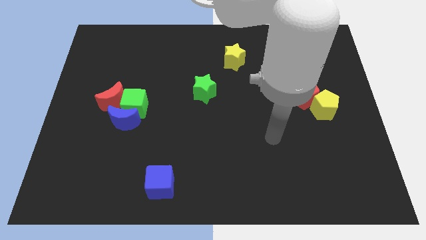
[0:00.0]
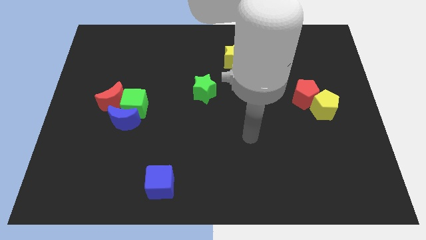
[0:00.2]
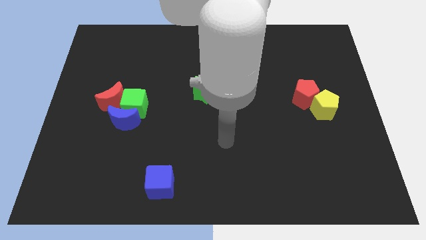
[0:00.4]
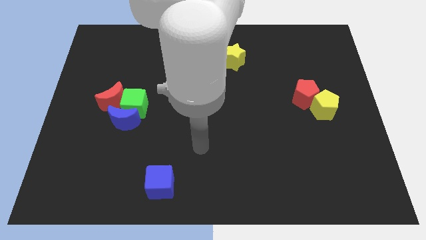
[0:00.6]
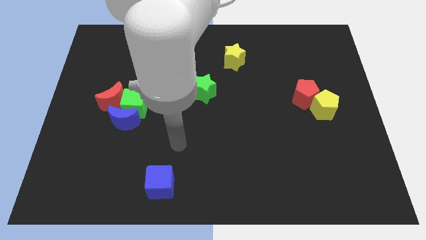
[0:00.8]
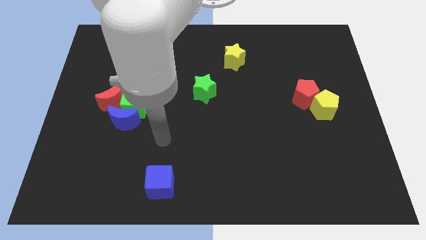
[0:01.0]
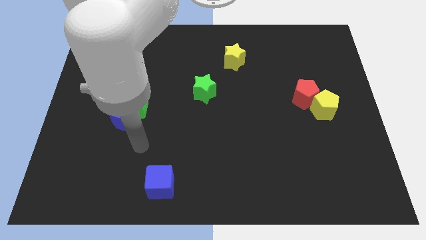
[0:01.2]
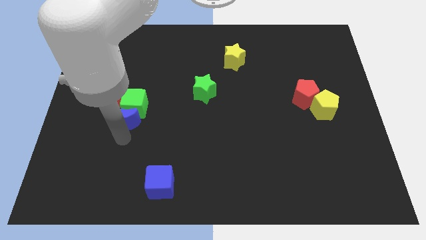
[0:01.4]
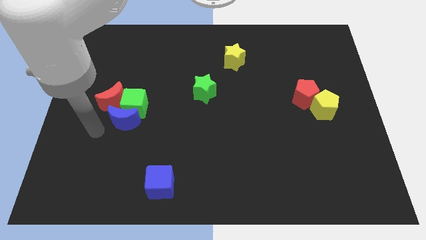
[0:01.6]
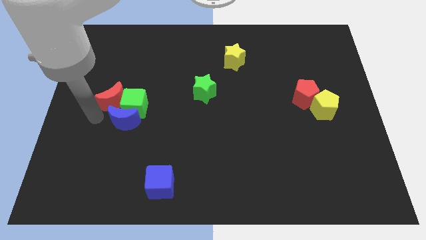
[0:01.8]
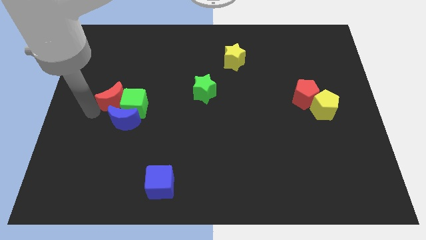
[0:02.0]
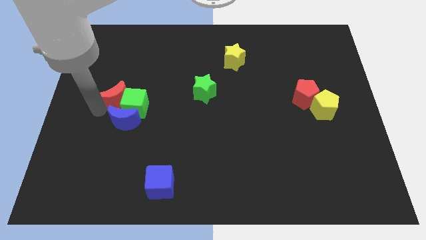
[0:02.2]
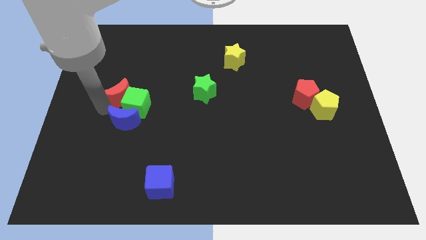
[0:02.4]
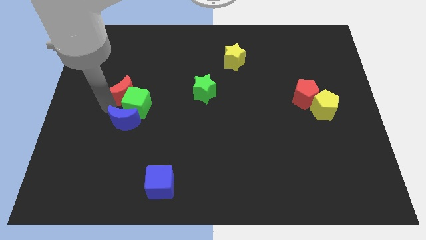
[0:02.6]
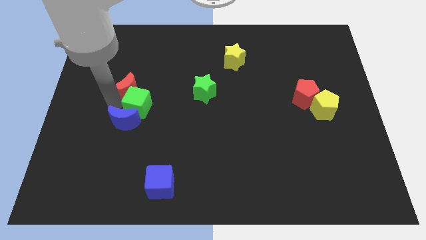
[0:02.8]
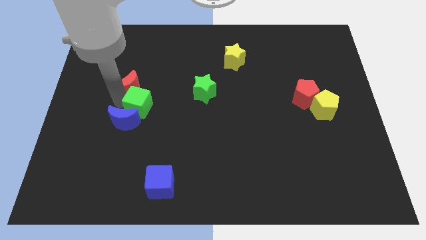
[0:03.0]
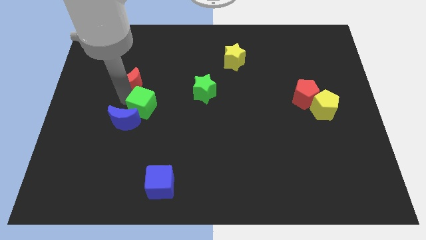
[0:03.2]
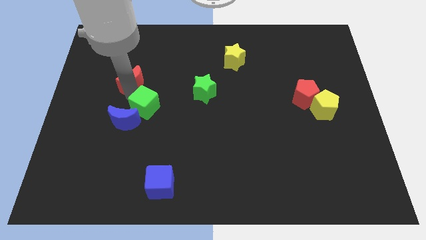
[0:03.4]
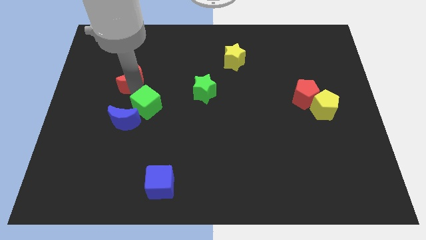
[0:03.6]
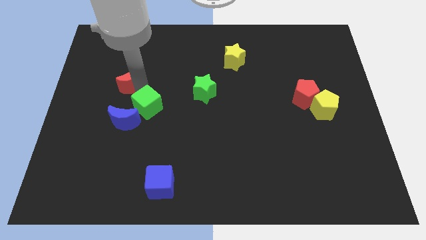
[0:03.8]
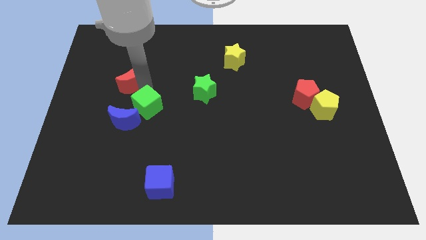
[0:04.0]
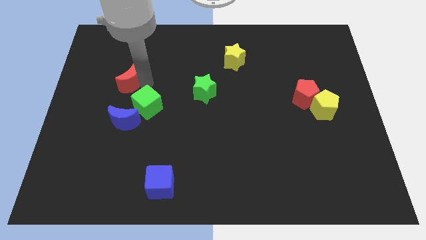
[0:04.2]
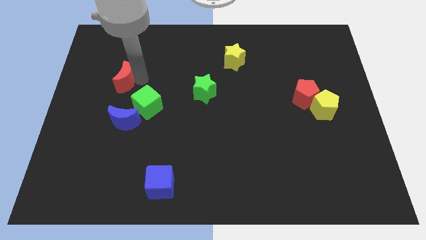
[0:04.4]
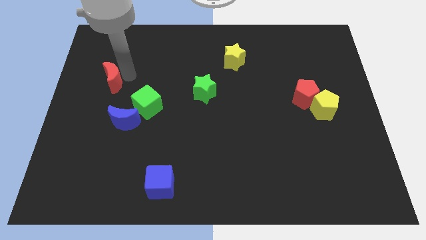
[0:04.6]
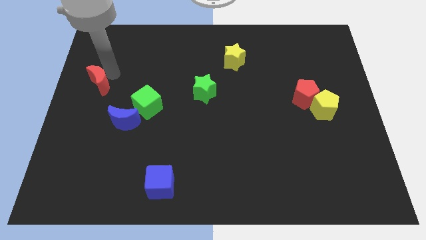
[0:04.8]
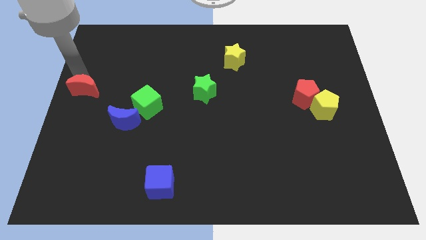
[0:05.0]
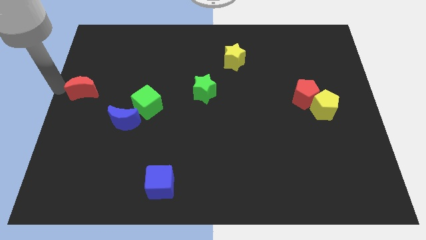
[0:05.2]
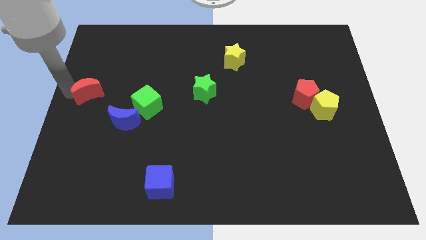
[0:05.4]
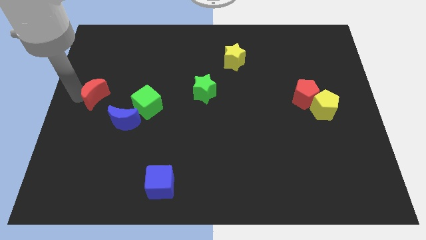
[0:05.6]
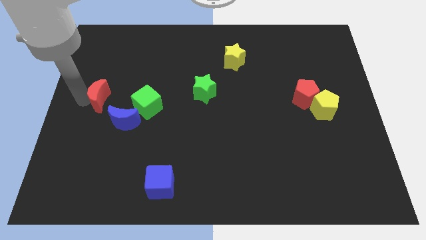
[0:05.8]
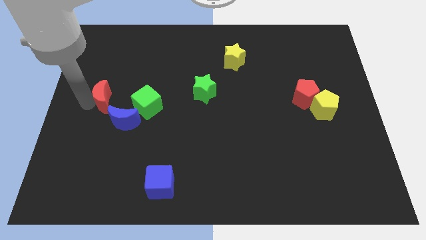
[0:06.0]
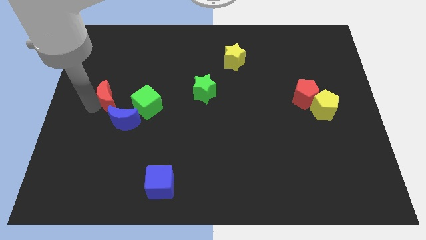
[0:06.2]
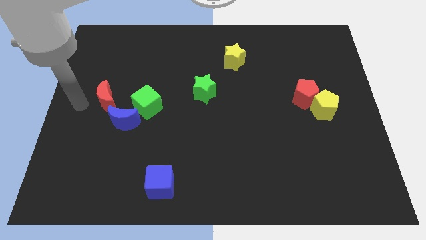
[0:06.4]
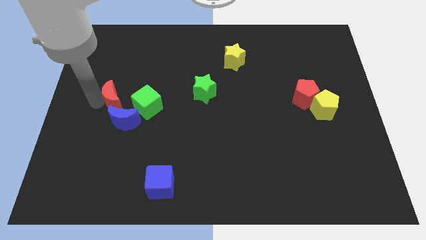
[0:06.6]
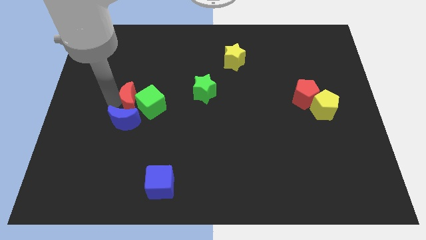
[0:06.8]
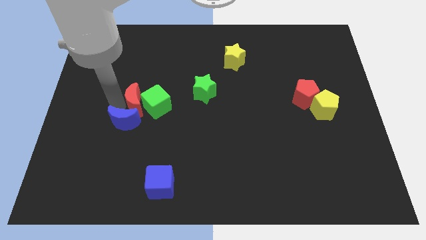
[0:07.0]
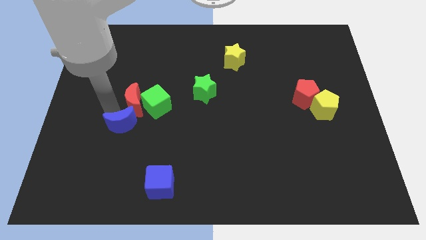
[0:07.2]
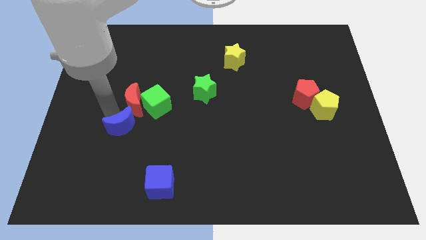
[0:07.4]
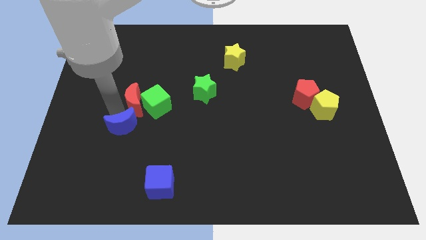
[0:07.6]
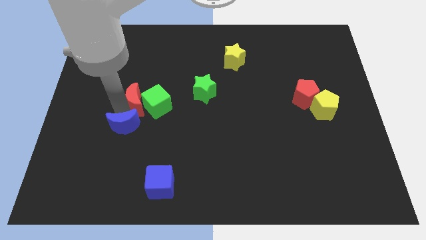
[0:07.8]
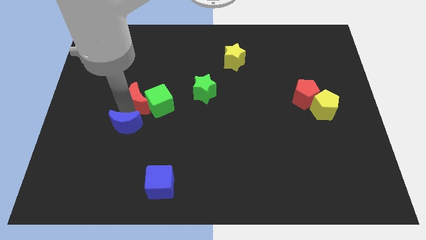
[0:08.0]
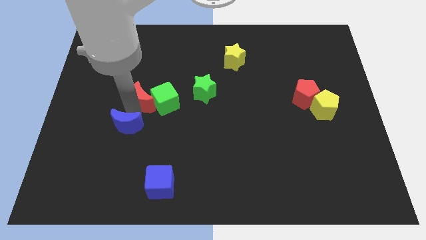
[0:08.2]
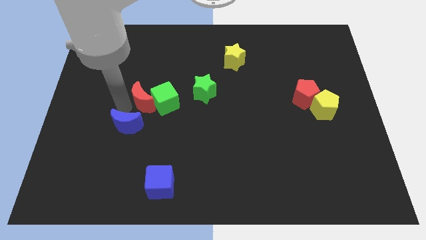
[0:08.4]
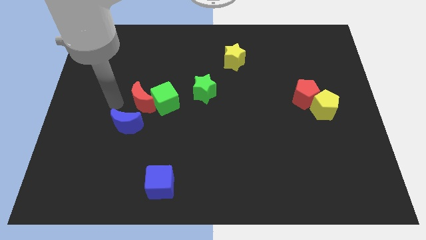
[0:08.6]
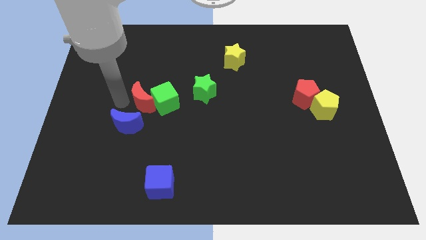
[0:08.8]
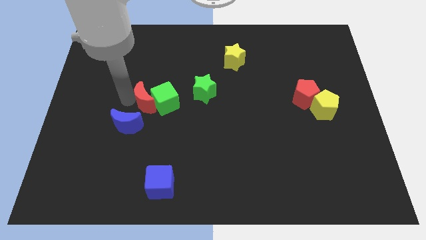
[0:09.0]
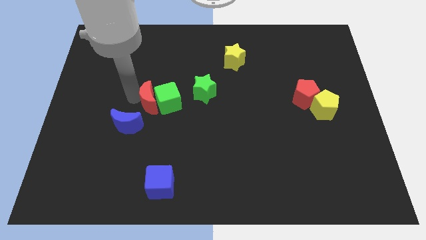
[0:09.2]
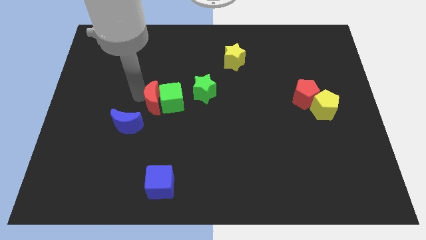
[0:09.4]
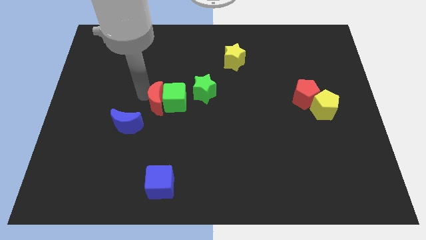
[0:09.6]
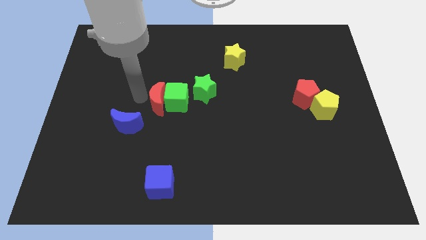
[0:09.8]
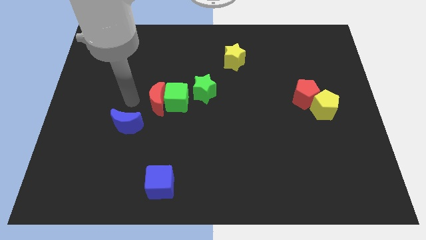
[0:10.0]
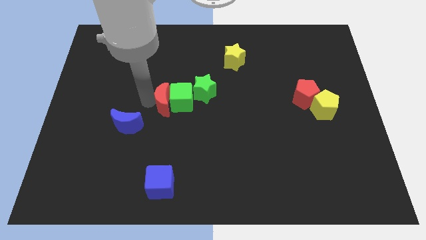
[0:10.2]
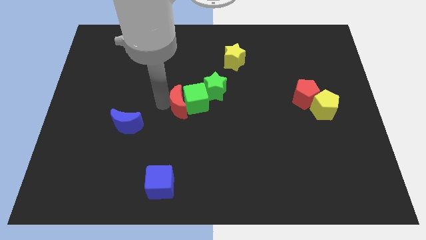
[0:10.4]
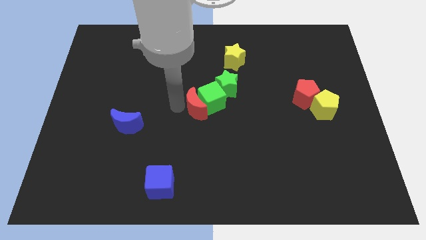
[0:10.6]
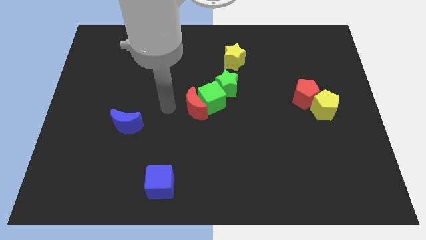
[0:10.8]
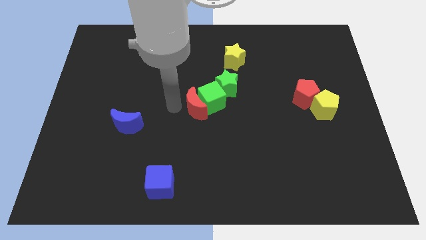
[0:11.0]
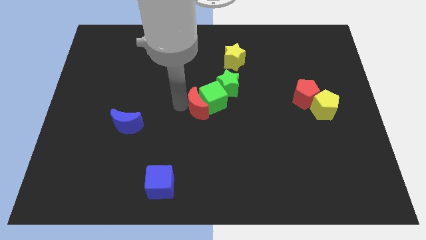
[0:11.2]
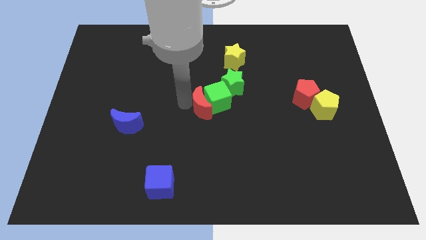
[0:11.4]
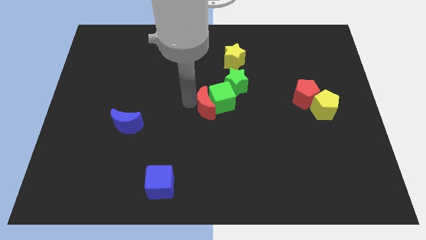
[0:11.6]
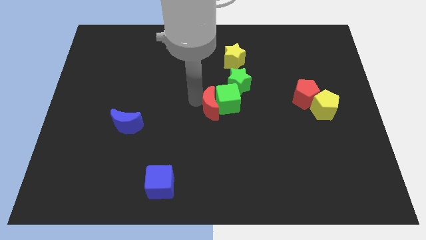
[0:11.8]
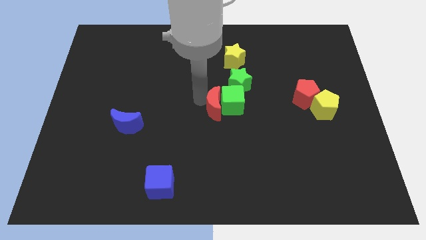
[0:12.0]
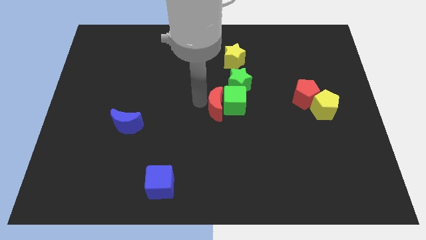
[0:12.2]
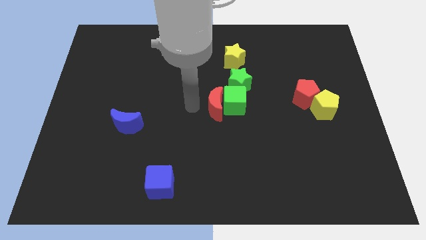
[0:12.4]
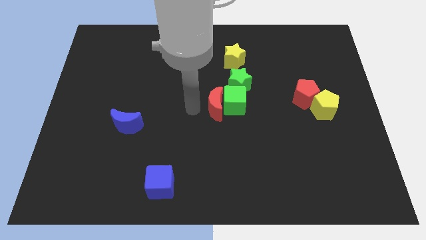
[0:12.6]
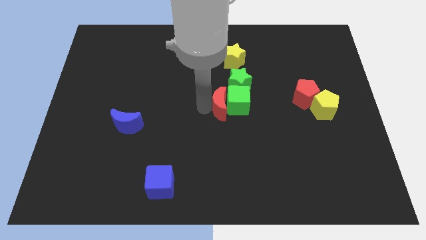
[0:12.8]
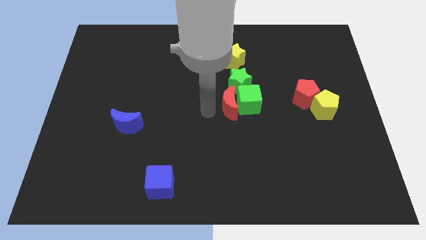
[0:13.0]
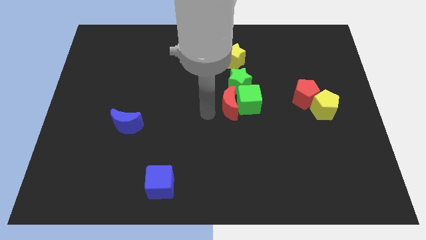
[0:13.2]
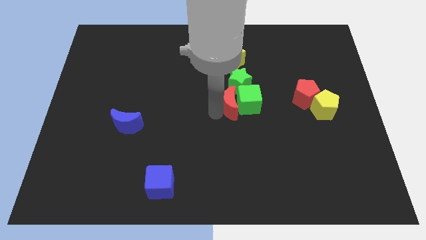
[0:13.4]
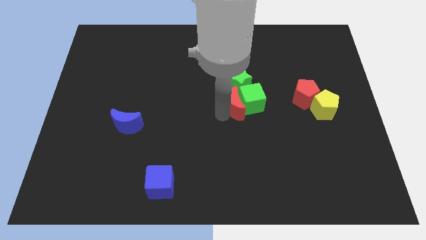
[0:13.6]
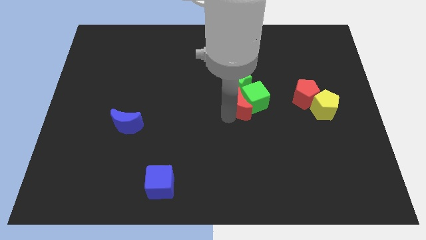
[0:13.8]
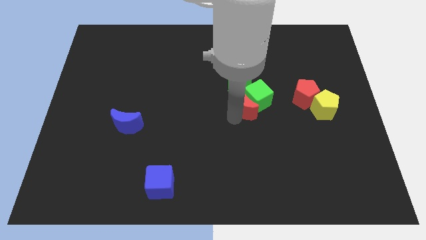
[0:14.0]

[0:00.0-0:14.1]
move the red moon left of the red pentagon

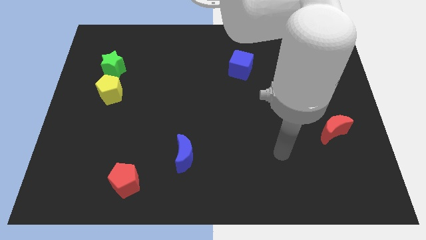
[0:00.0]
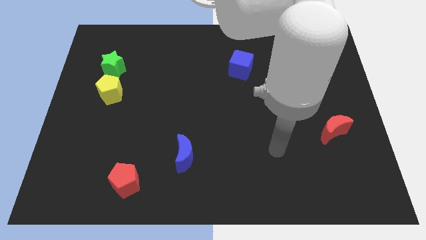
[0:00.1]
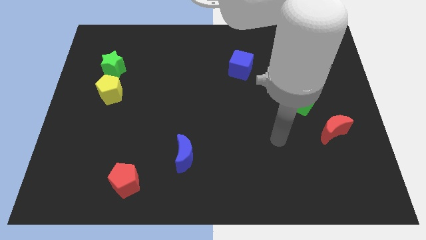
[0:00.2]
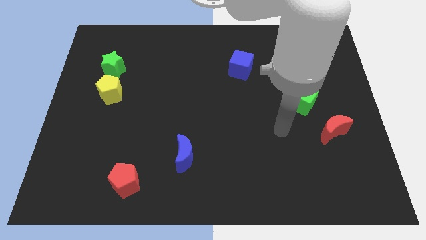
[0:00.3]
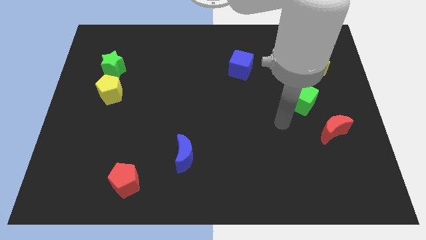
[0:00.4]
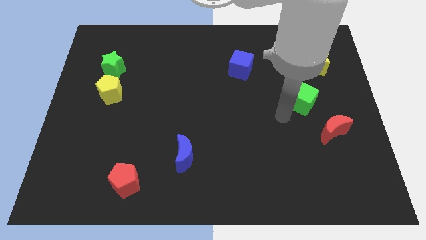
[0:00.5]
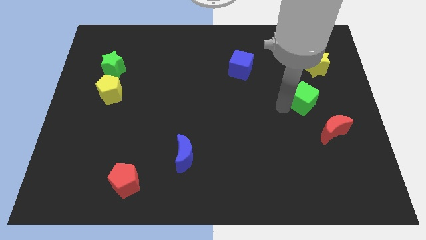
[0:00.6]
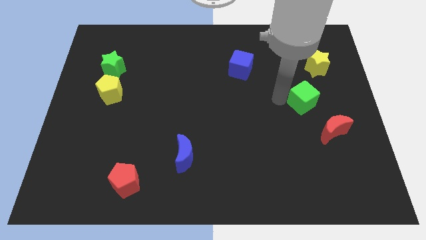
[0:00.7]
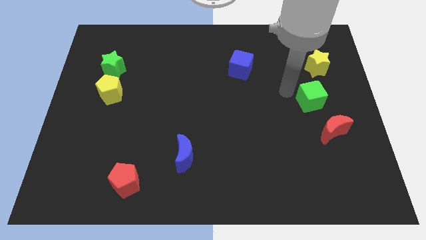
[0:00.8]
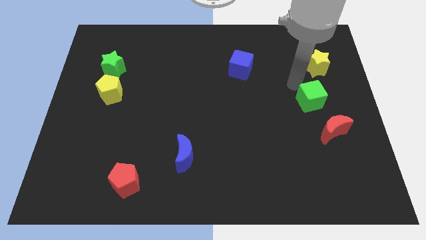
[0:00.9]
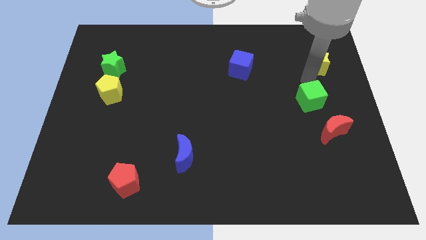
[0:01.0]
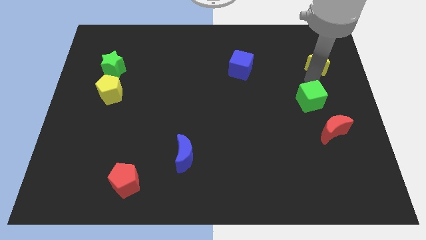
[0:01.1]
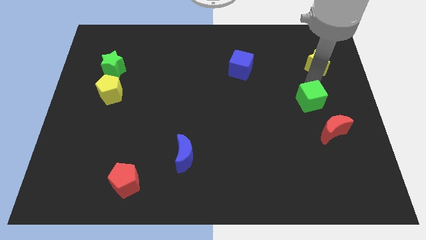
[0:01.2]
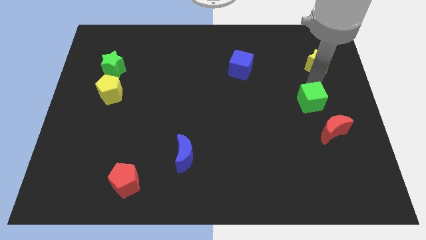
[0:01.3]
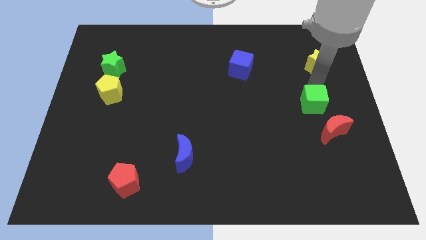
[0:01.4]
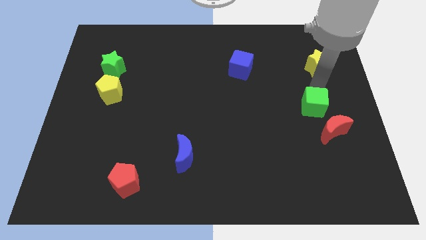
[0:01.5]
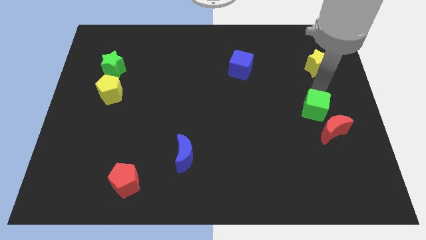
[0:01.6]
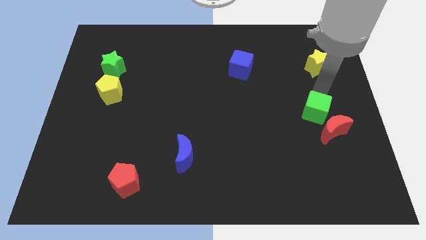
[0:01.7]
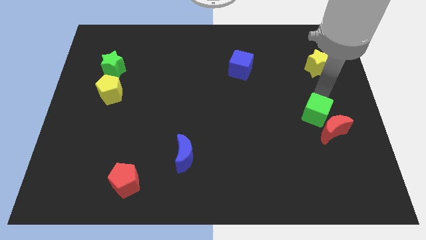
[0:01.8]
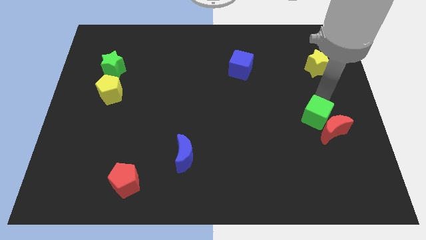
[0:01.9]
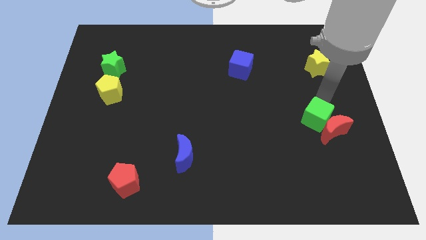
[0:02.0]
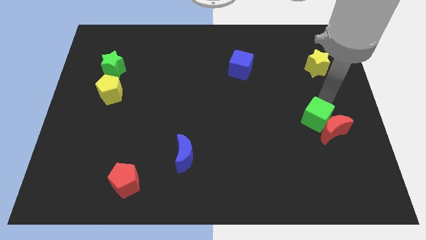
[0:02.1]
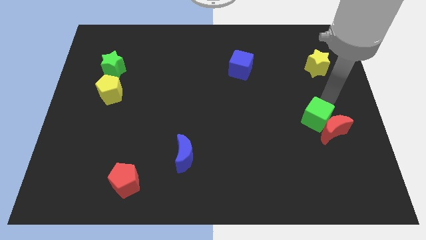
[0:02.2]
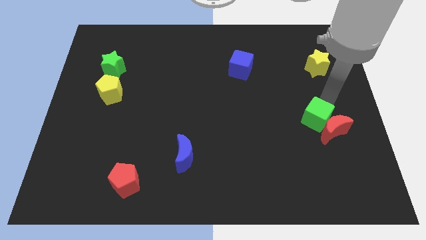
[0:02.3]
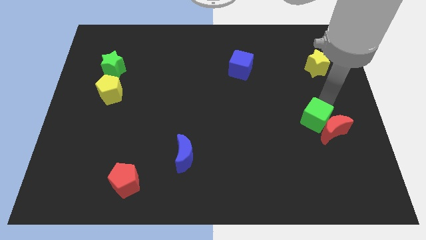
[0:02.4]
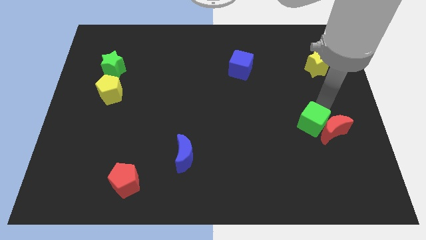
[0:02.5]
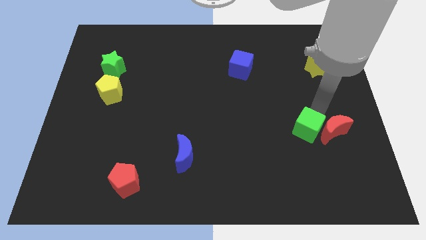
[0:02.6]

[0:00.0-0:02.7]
slide the green cube diagonally down and to the left of the red moon
